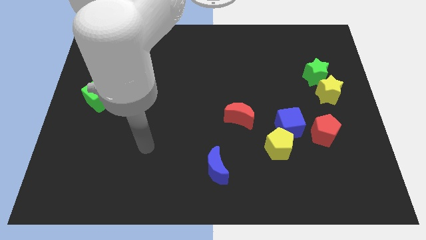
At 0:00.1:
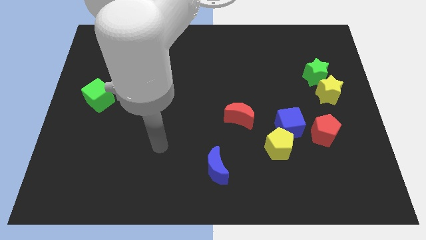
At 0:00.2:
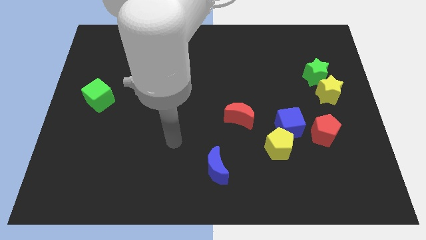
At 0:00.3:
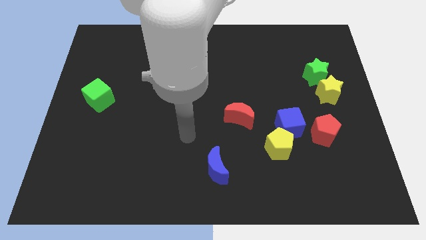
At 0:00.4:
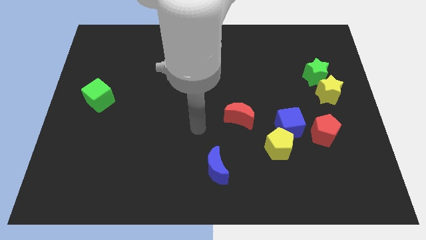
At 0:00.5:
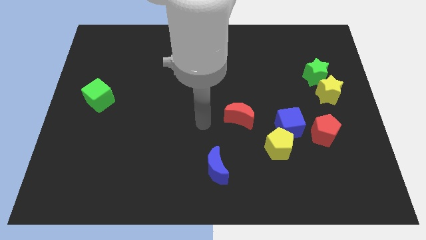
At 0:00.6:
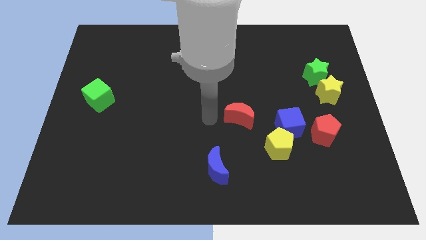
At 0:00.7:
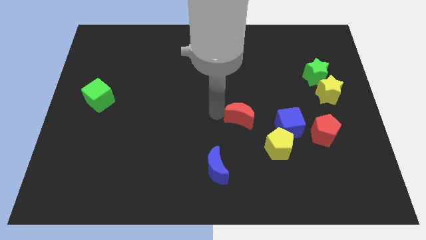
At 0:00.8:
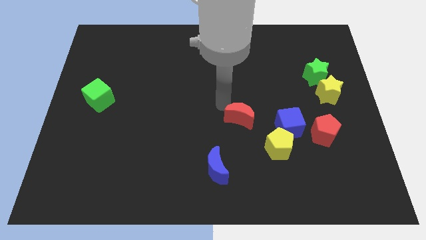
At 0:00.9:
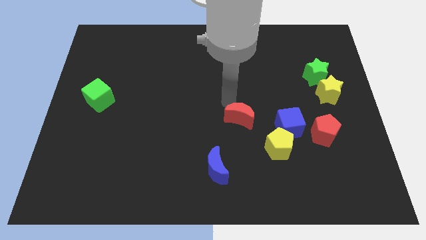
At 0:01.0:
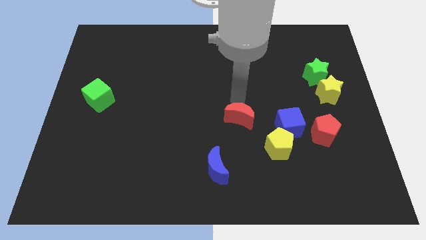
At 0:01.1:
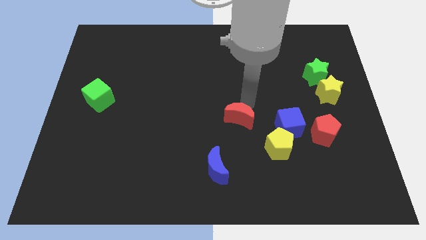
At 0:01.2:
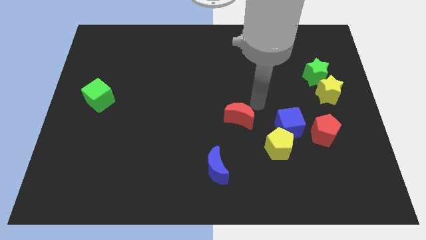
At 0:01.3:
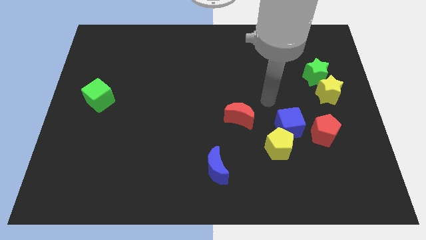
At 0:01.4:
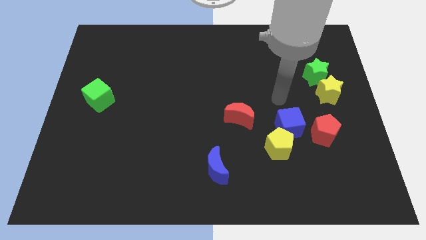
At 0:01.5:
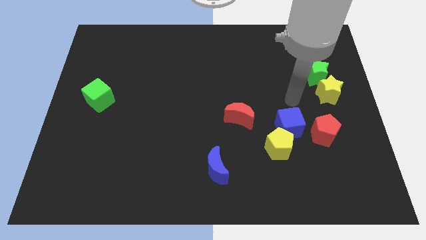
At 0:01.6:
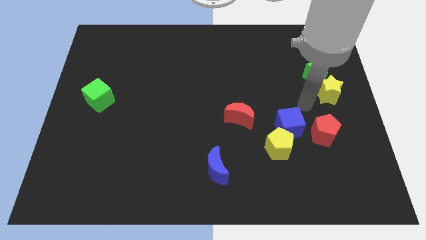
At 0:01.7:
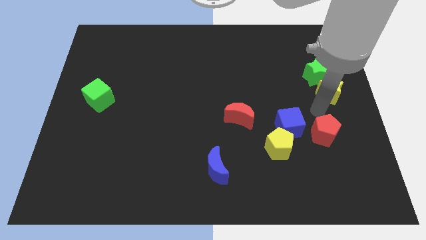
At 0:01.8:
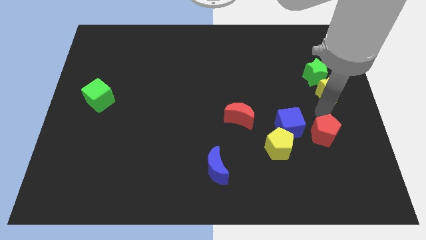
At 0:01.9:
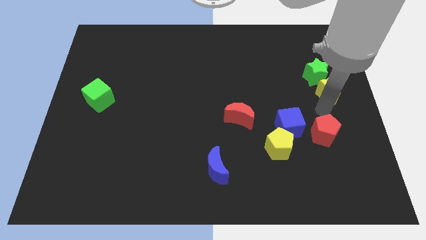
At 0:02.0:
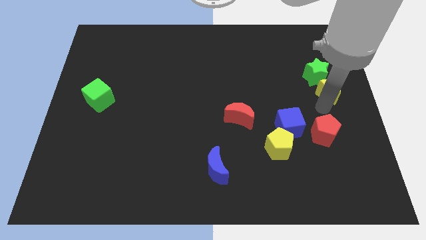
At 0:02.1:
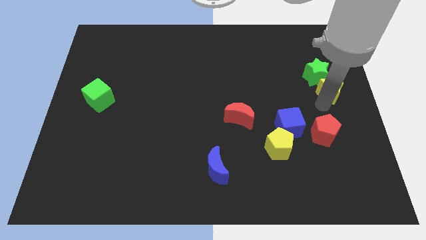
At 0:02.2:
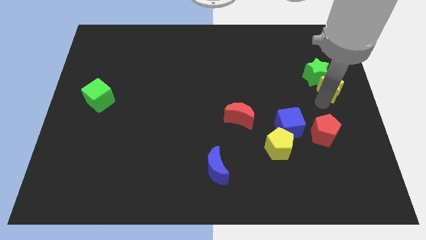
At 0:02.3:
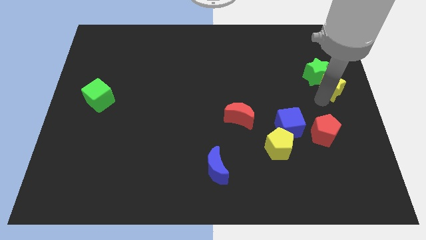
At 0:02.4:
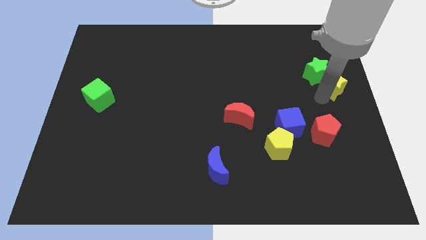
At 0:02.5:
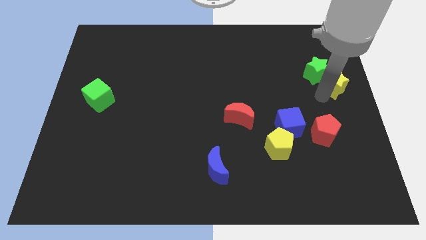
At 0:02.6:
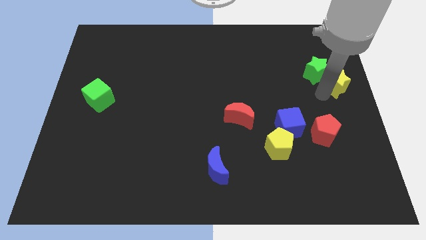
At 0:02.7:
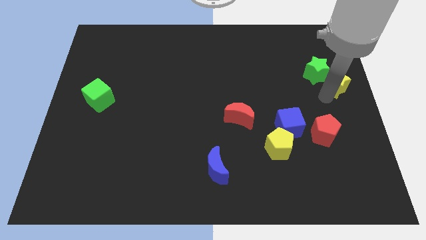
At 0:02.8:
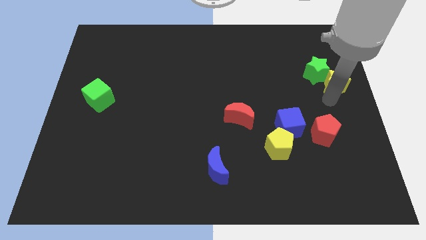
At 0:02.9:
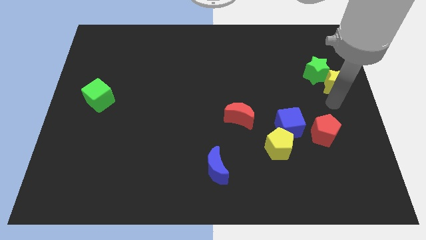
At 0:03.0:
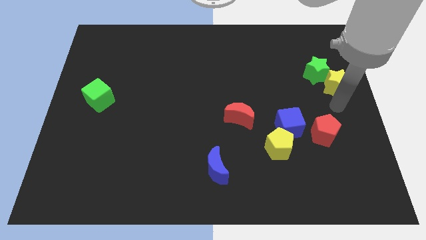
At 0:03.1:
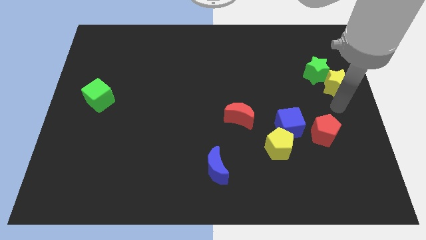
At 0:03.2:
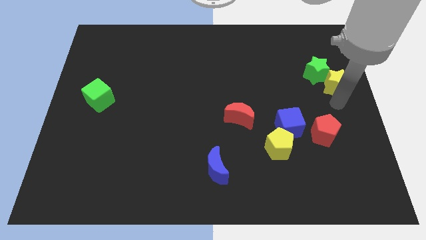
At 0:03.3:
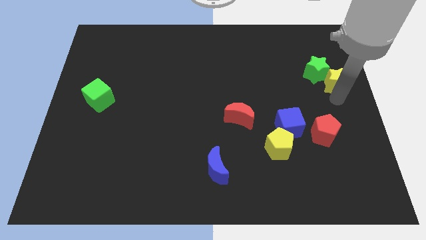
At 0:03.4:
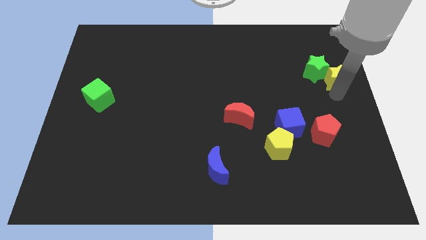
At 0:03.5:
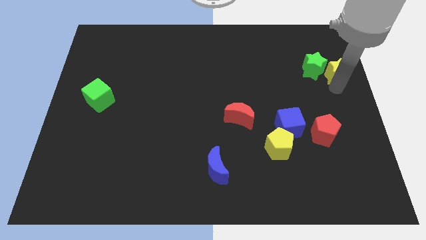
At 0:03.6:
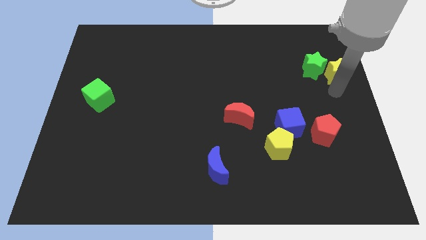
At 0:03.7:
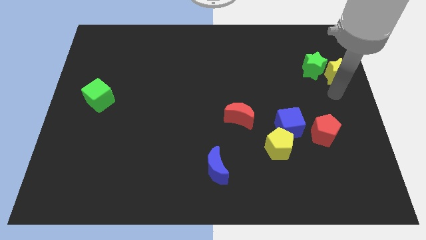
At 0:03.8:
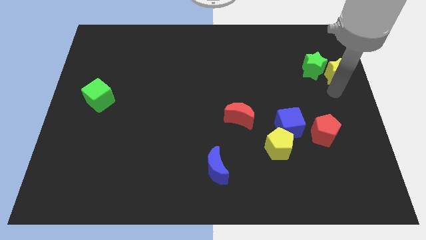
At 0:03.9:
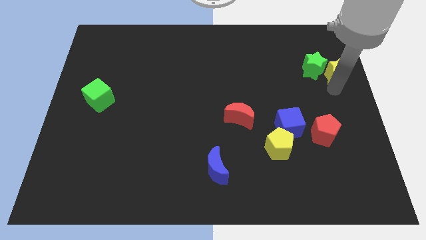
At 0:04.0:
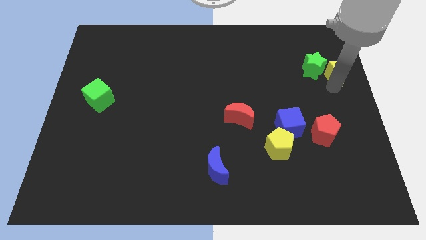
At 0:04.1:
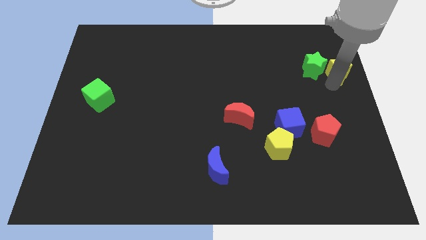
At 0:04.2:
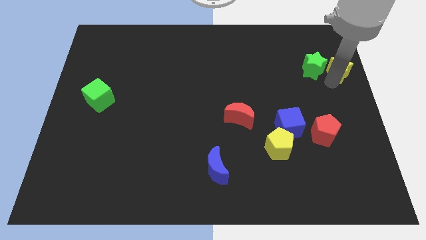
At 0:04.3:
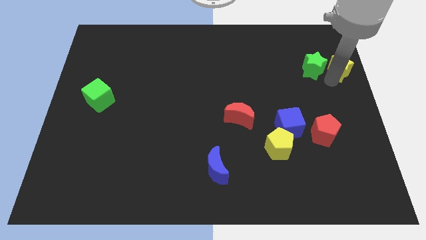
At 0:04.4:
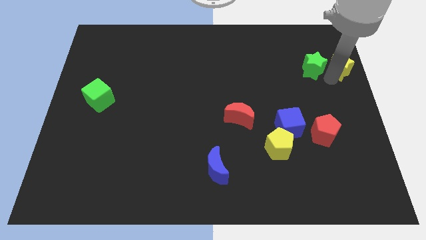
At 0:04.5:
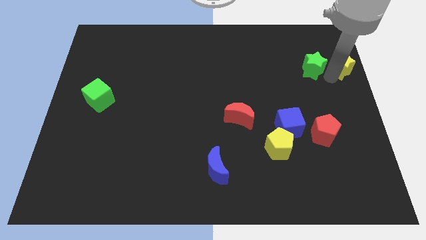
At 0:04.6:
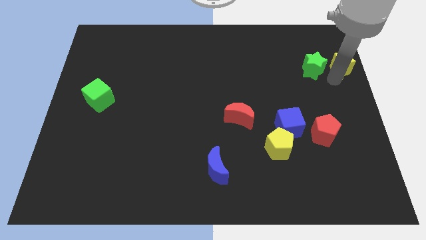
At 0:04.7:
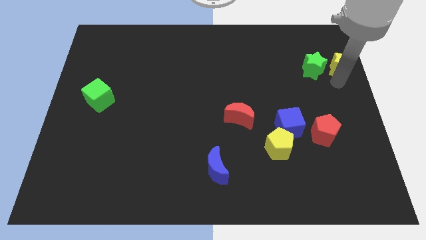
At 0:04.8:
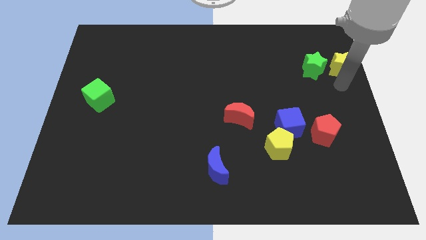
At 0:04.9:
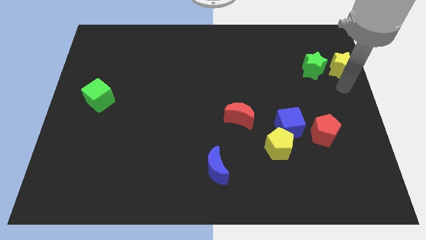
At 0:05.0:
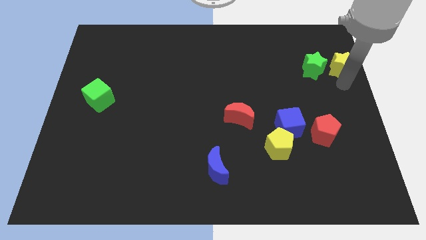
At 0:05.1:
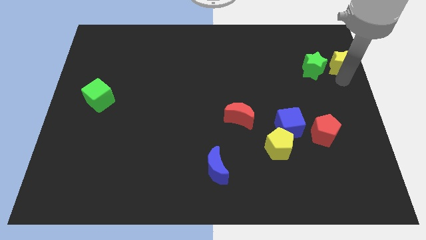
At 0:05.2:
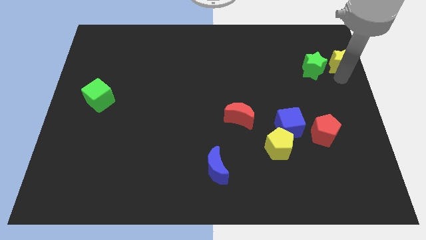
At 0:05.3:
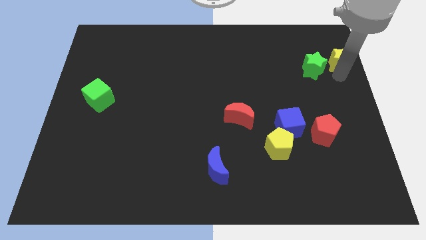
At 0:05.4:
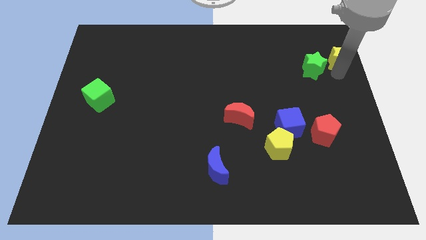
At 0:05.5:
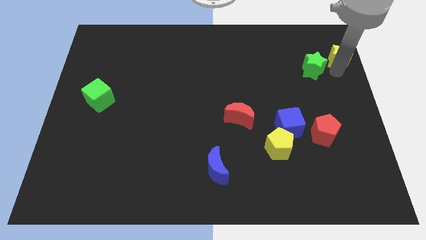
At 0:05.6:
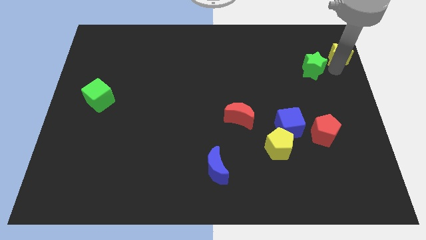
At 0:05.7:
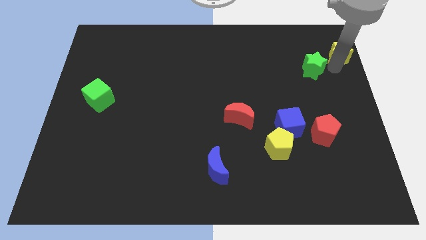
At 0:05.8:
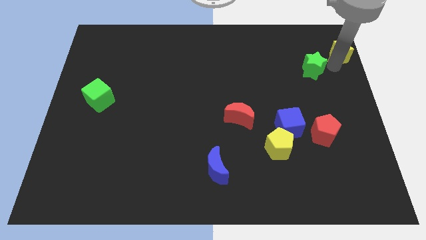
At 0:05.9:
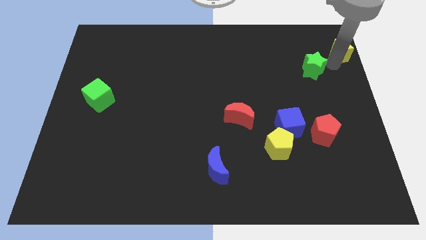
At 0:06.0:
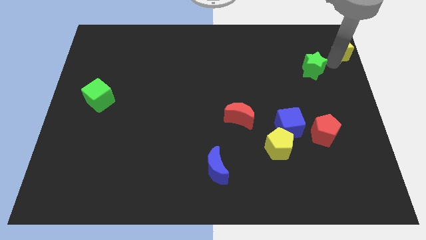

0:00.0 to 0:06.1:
slide the yellow star to the top right of the board
